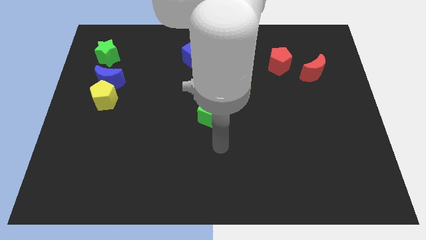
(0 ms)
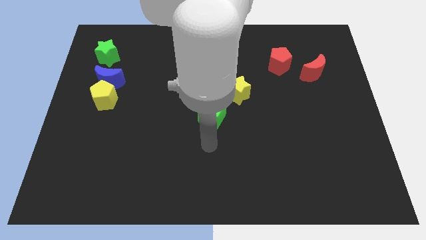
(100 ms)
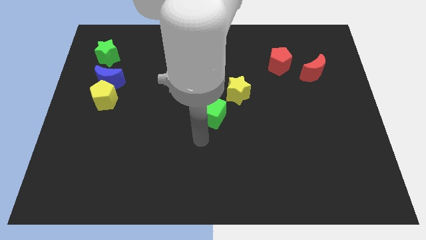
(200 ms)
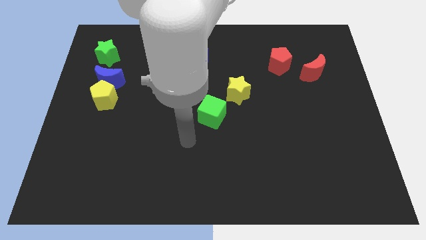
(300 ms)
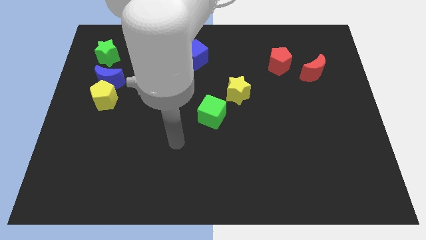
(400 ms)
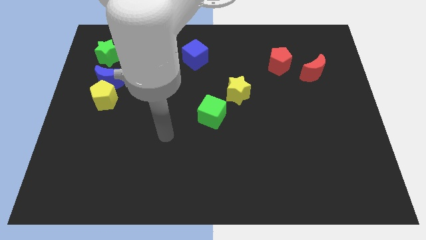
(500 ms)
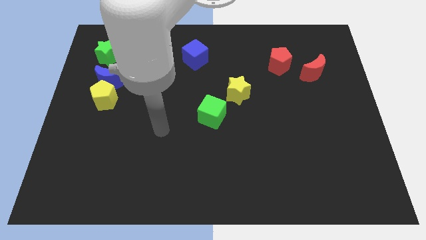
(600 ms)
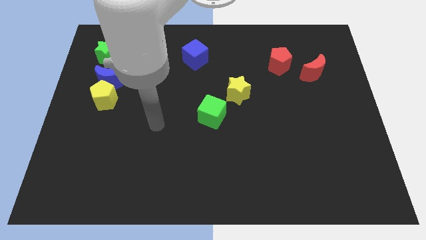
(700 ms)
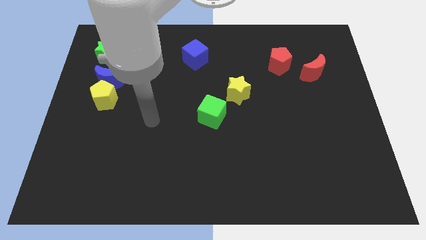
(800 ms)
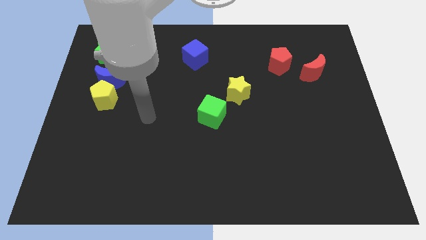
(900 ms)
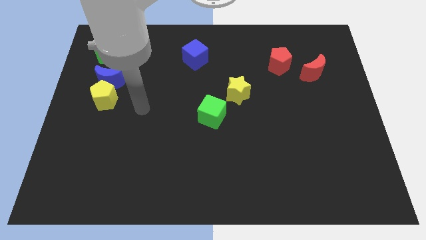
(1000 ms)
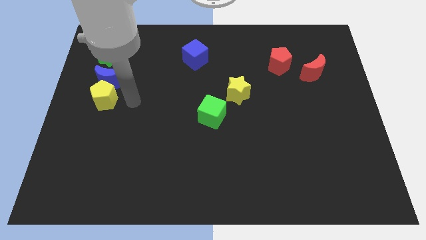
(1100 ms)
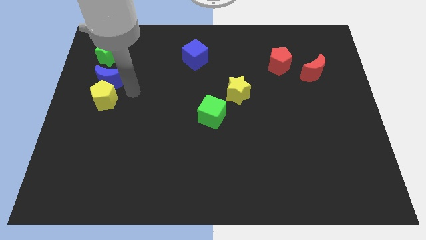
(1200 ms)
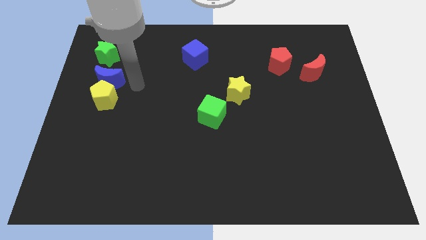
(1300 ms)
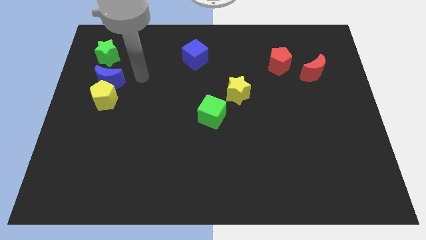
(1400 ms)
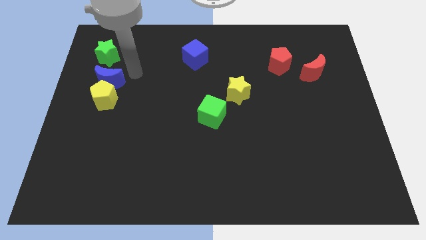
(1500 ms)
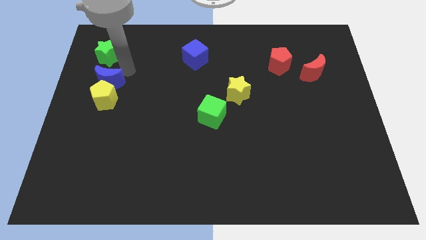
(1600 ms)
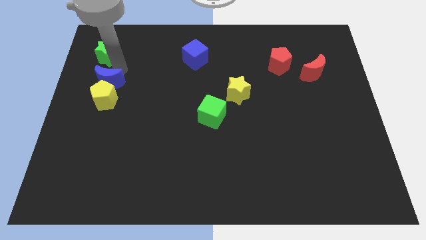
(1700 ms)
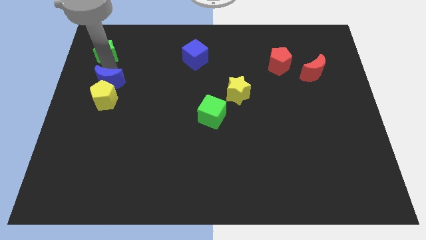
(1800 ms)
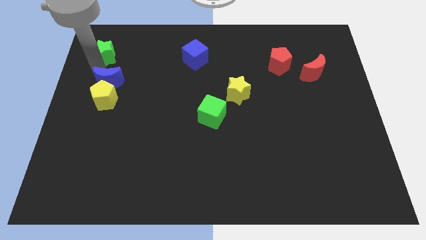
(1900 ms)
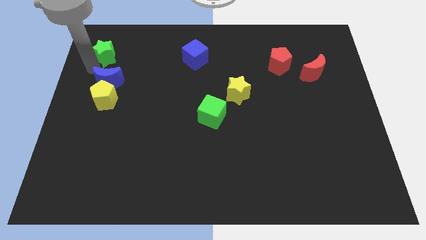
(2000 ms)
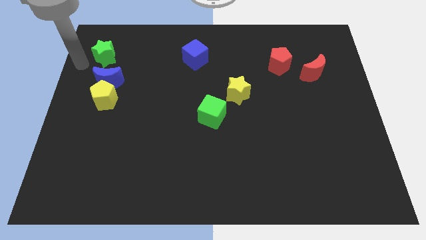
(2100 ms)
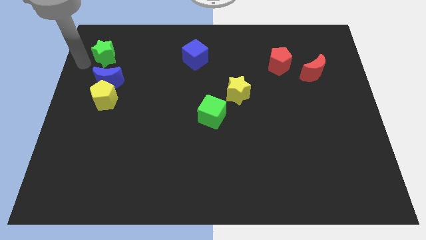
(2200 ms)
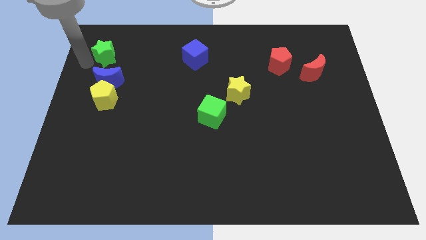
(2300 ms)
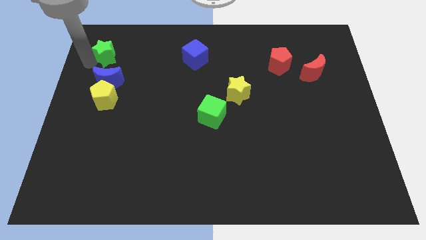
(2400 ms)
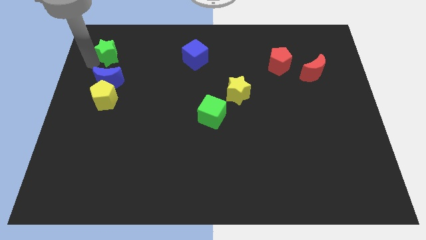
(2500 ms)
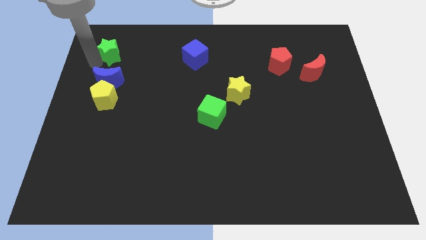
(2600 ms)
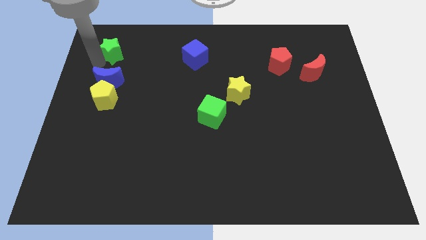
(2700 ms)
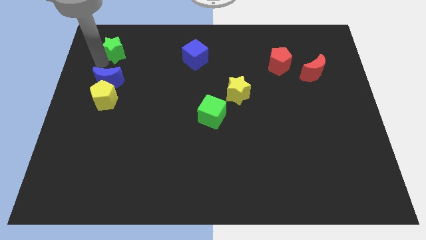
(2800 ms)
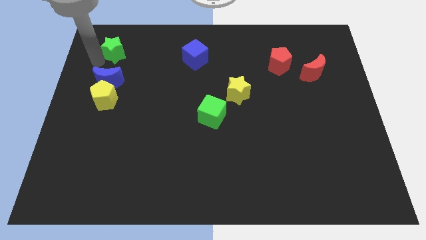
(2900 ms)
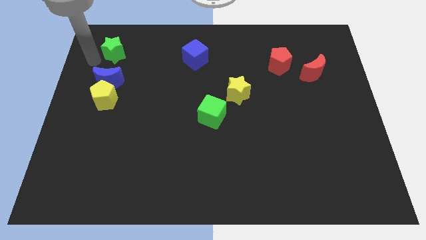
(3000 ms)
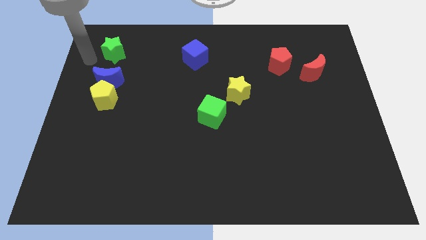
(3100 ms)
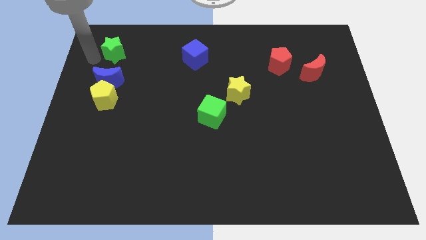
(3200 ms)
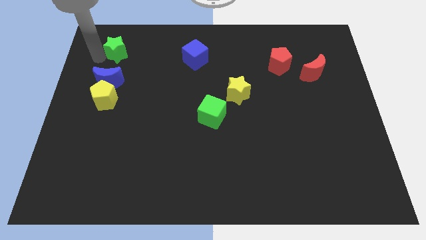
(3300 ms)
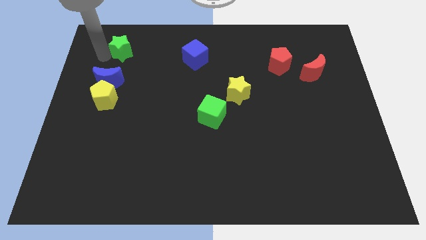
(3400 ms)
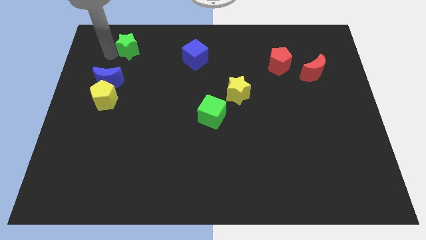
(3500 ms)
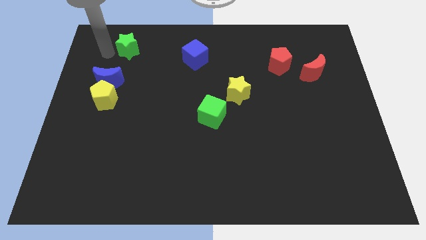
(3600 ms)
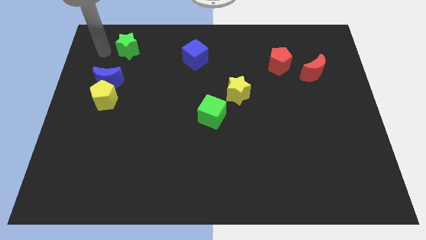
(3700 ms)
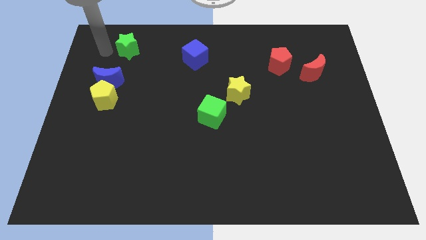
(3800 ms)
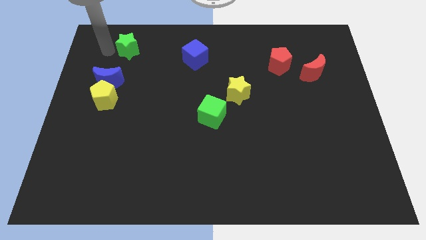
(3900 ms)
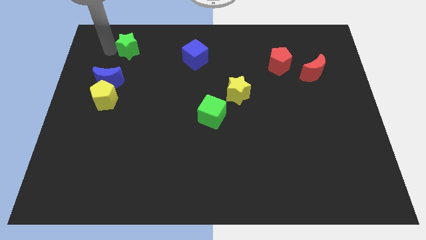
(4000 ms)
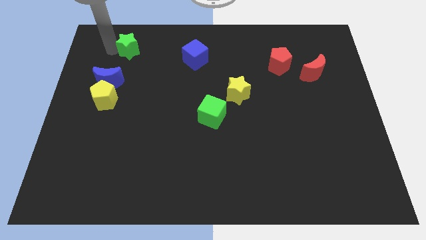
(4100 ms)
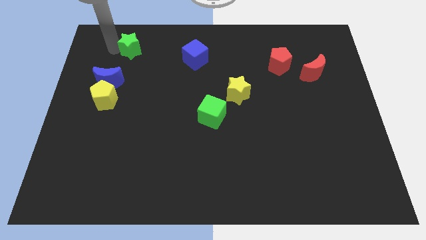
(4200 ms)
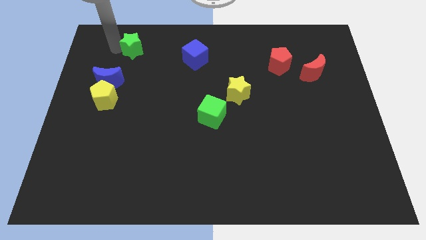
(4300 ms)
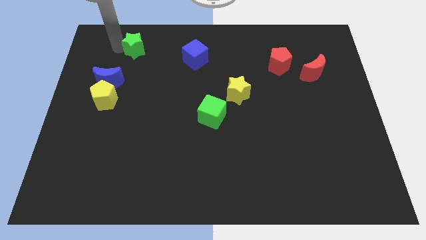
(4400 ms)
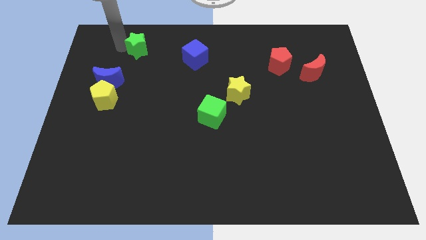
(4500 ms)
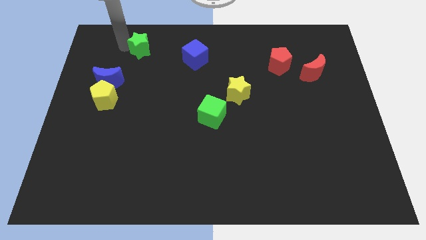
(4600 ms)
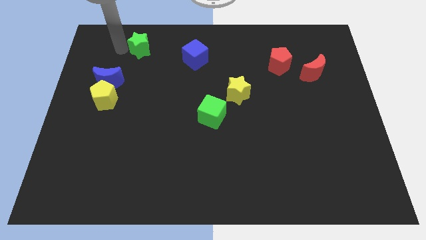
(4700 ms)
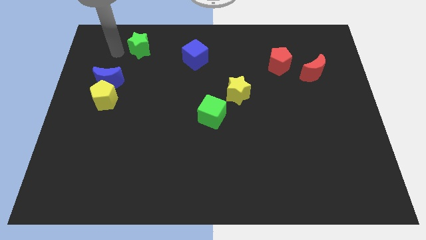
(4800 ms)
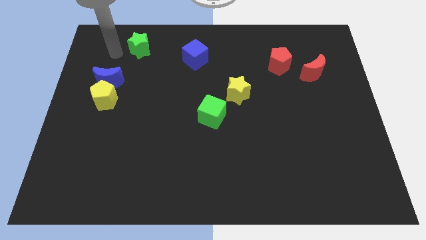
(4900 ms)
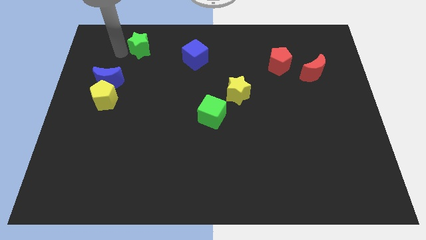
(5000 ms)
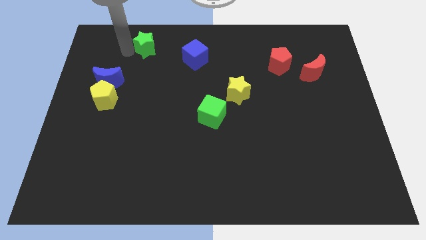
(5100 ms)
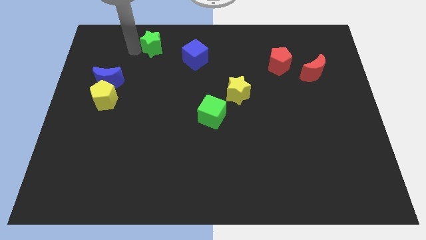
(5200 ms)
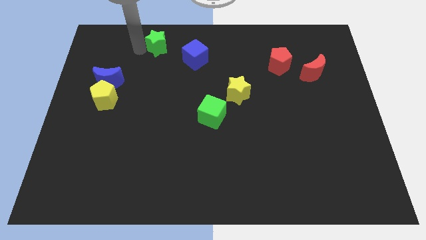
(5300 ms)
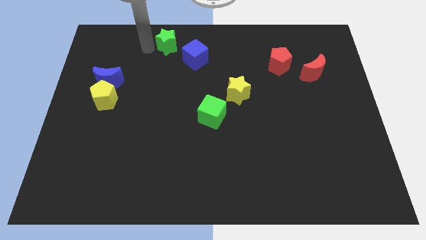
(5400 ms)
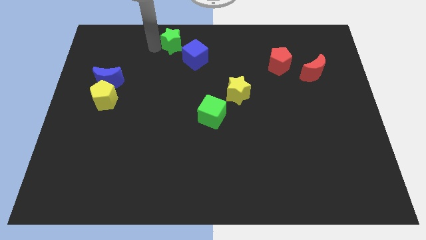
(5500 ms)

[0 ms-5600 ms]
move the green star to the towards your base

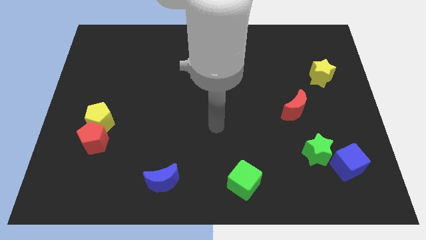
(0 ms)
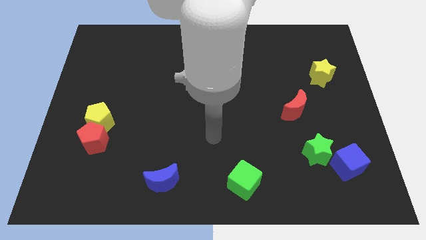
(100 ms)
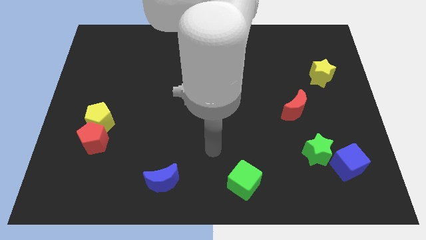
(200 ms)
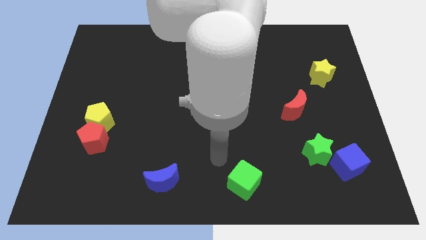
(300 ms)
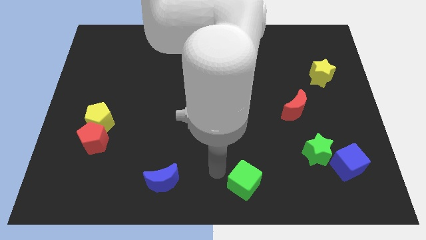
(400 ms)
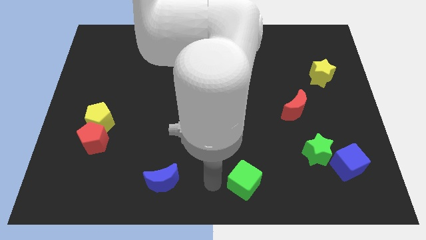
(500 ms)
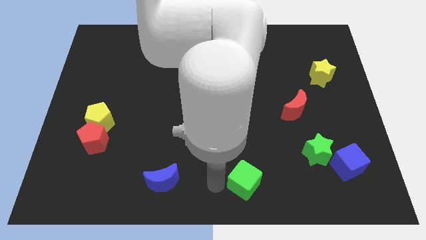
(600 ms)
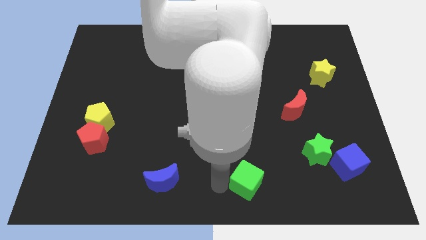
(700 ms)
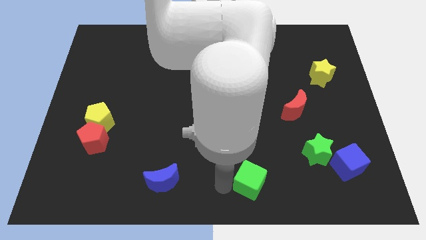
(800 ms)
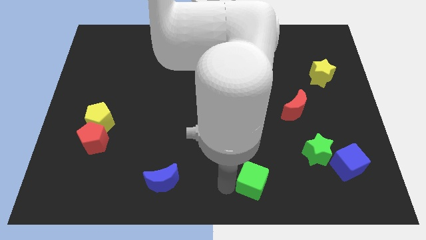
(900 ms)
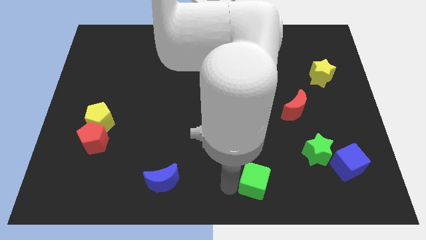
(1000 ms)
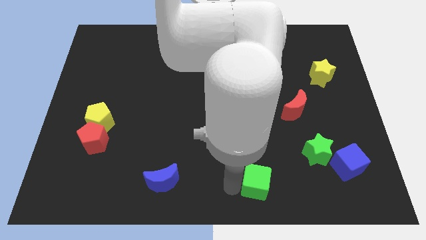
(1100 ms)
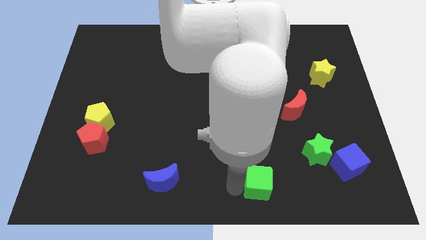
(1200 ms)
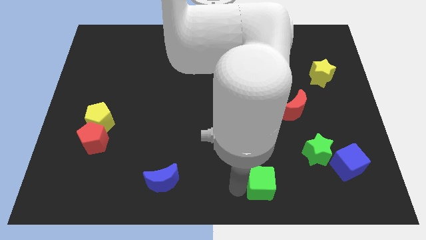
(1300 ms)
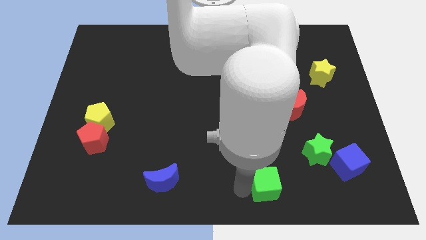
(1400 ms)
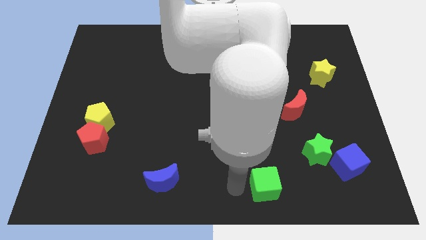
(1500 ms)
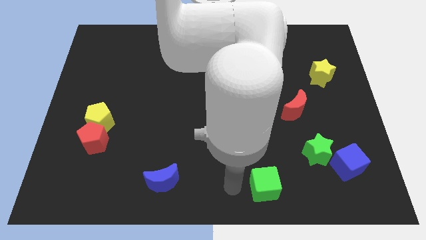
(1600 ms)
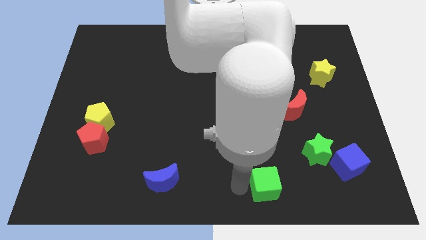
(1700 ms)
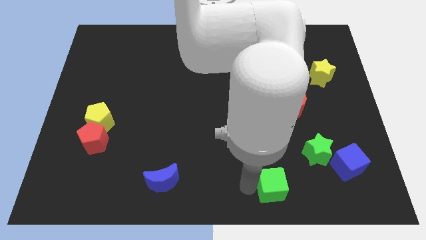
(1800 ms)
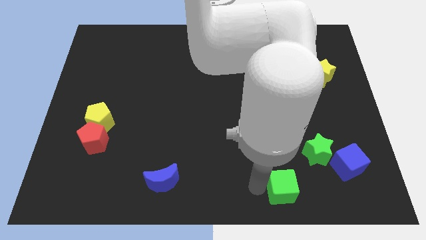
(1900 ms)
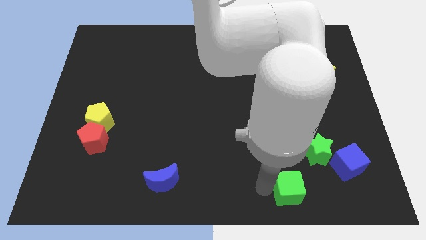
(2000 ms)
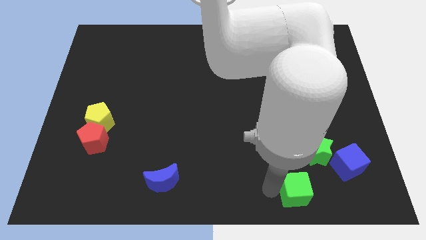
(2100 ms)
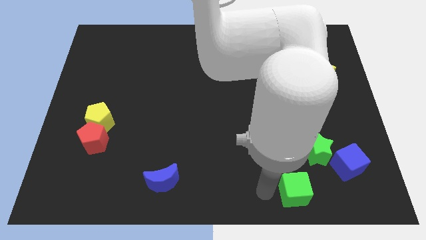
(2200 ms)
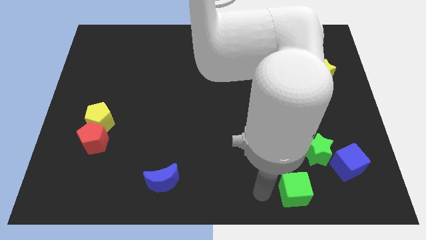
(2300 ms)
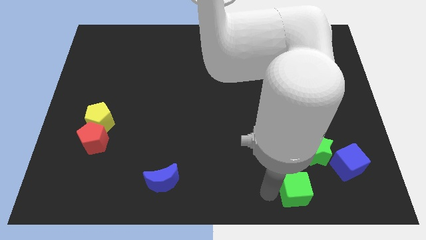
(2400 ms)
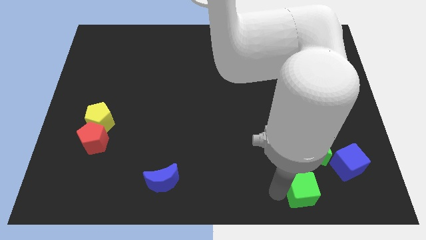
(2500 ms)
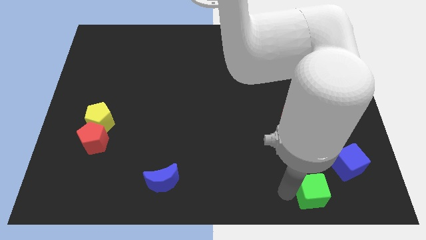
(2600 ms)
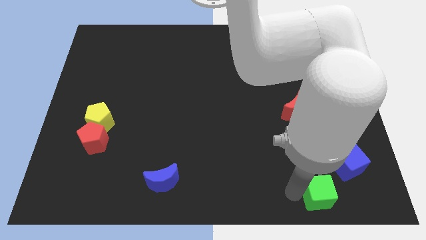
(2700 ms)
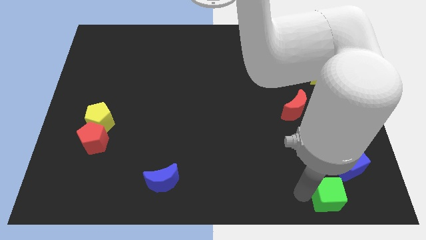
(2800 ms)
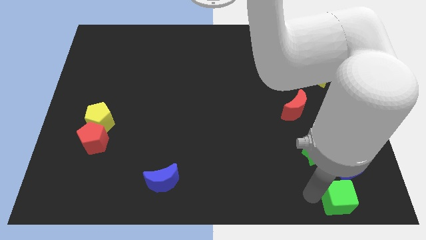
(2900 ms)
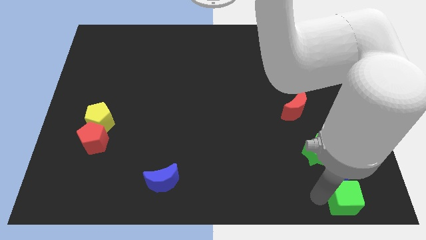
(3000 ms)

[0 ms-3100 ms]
slide the green cube to the lower right corner
